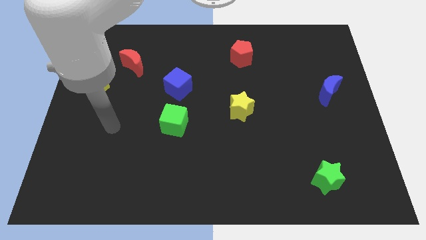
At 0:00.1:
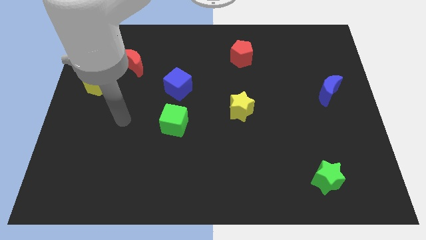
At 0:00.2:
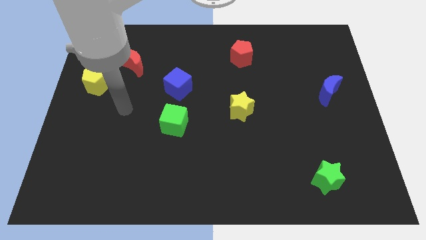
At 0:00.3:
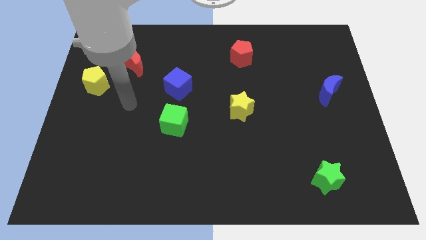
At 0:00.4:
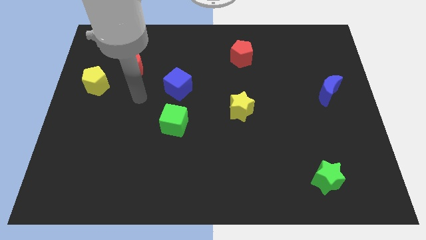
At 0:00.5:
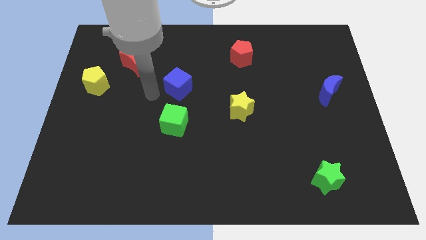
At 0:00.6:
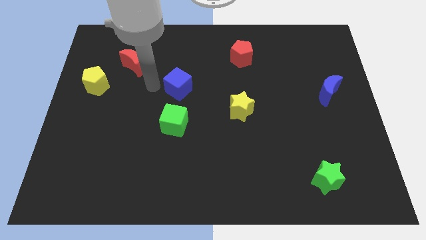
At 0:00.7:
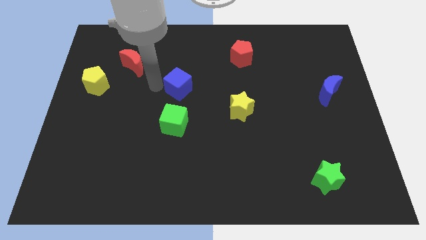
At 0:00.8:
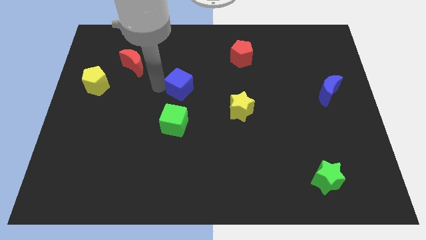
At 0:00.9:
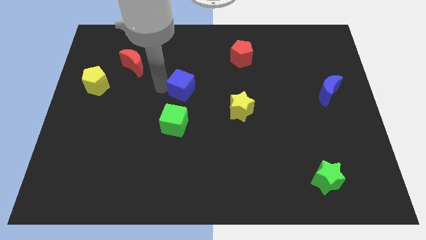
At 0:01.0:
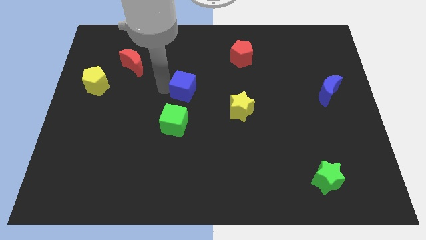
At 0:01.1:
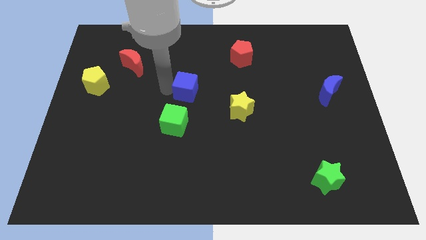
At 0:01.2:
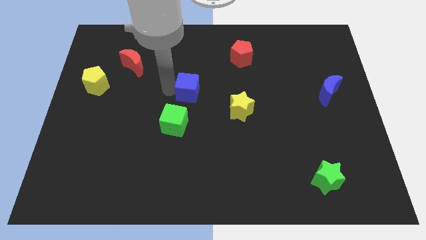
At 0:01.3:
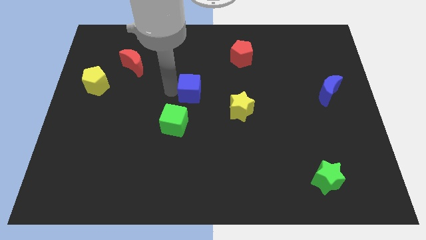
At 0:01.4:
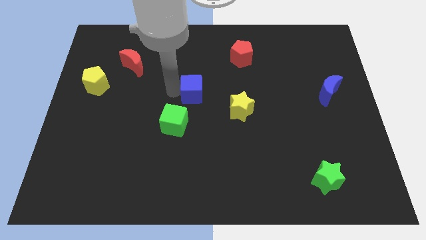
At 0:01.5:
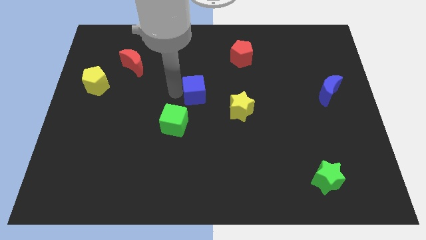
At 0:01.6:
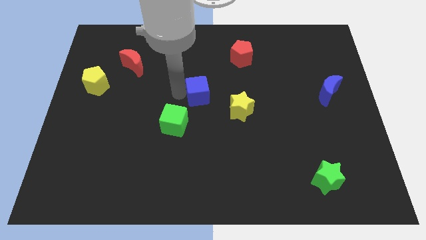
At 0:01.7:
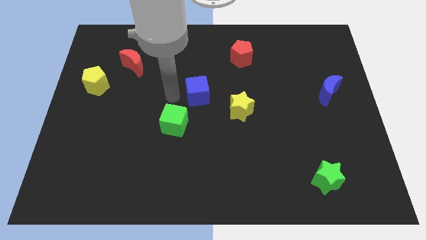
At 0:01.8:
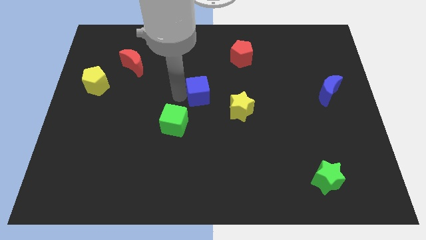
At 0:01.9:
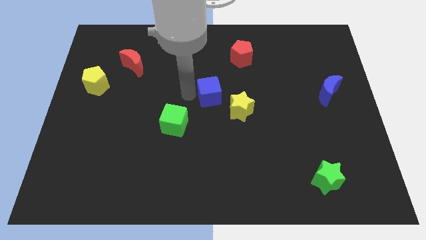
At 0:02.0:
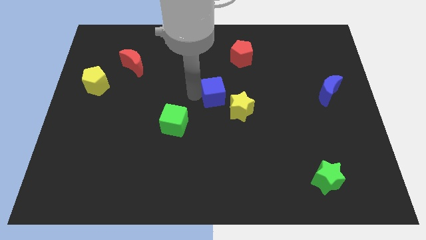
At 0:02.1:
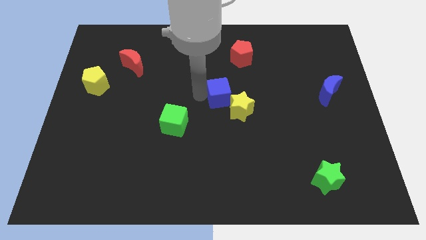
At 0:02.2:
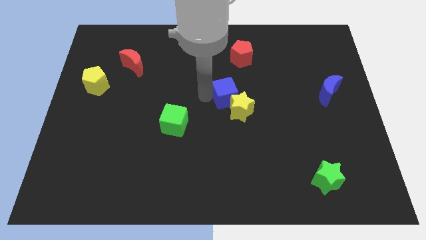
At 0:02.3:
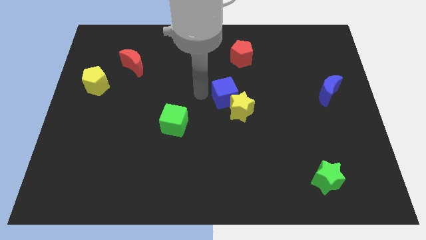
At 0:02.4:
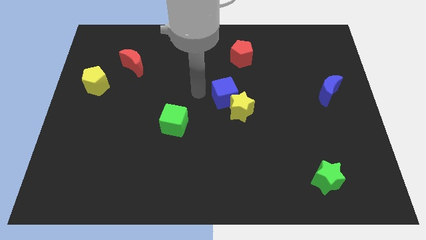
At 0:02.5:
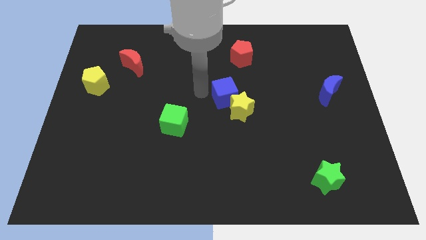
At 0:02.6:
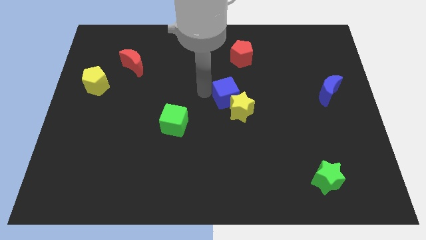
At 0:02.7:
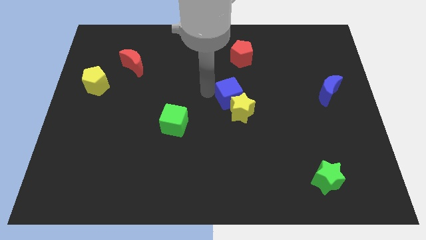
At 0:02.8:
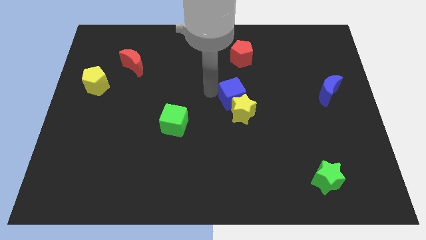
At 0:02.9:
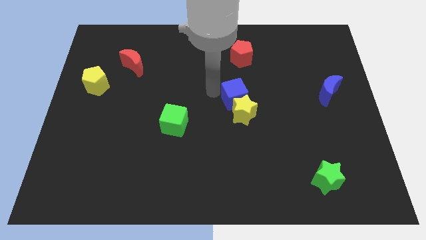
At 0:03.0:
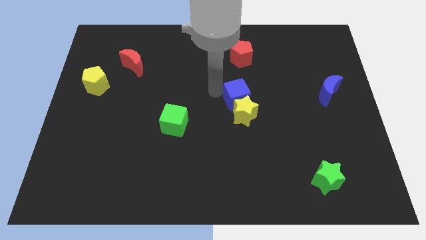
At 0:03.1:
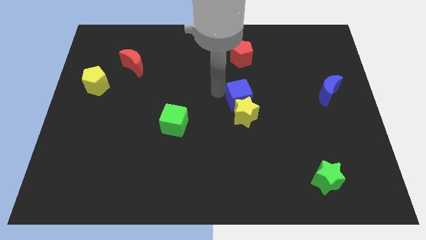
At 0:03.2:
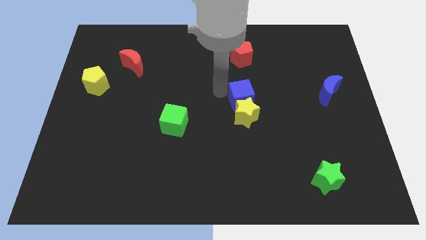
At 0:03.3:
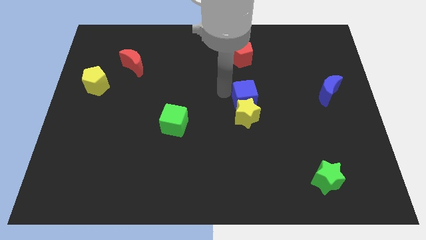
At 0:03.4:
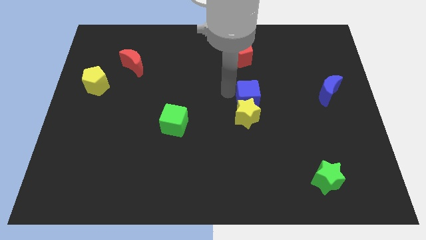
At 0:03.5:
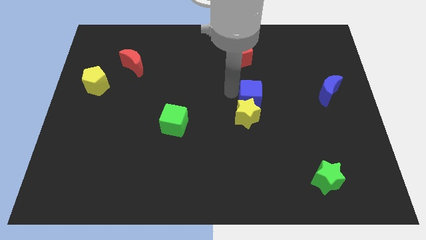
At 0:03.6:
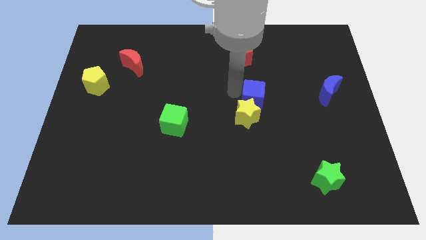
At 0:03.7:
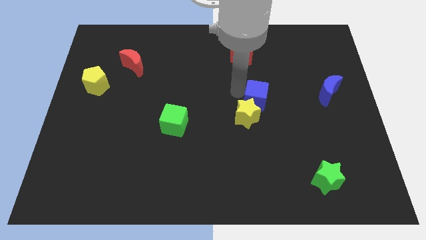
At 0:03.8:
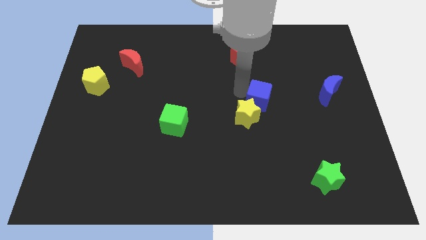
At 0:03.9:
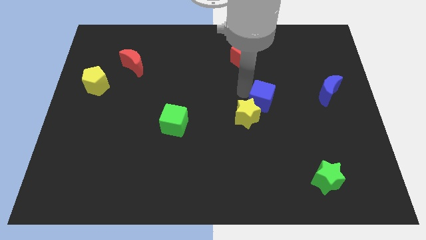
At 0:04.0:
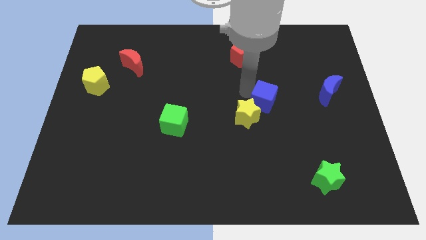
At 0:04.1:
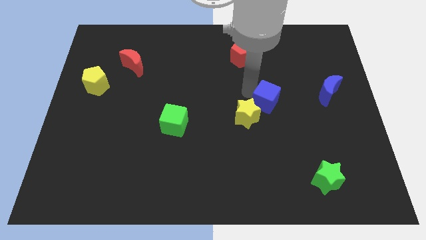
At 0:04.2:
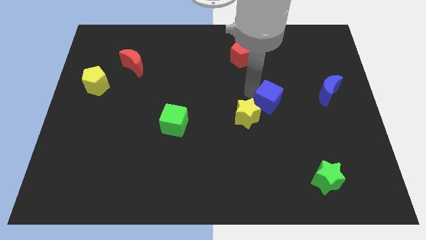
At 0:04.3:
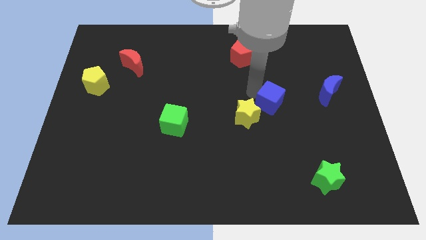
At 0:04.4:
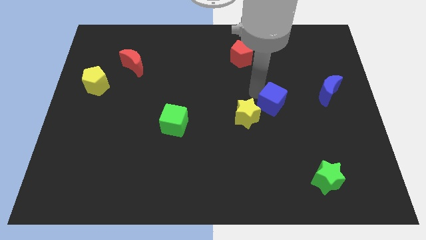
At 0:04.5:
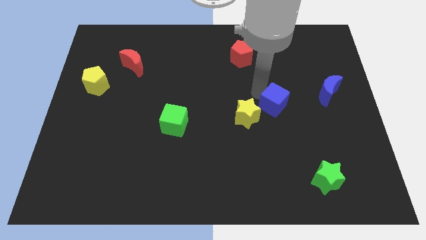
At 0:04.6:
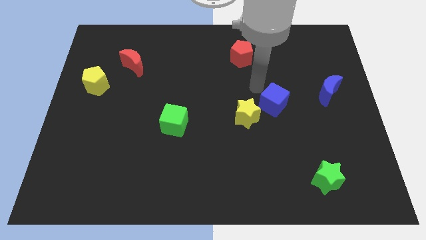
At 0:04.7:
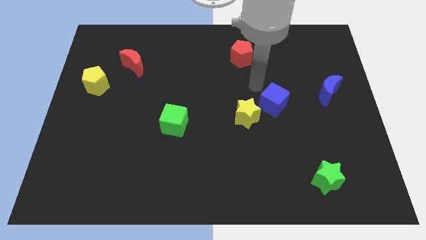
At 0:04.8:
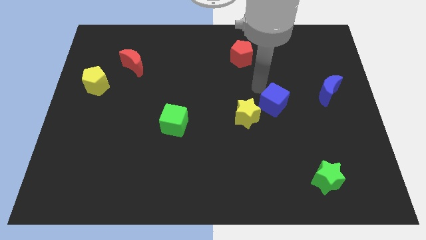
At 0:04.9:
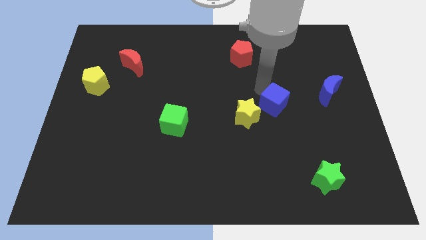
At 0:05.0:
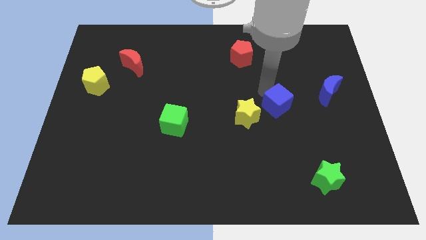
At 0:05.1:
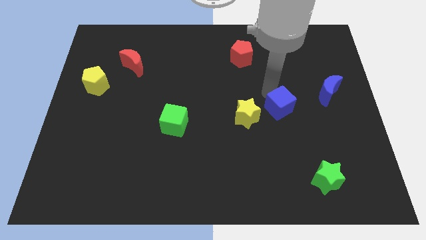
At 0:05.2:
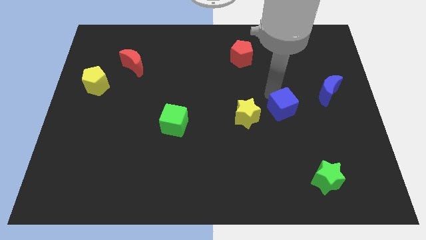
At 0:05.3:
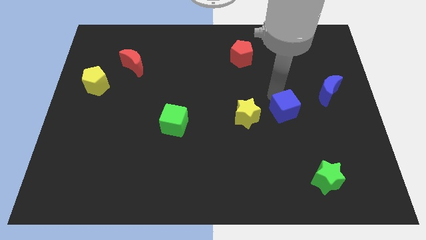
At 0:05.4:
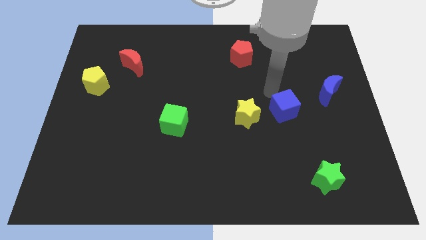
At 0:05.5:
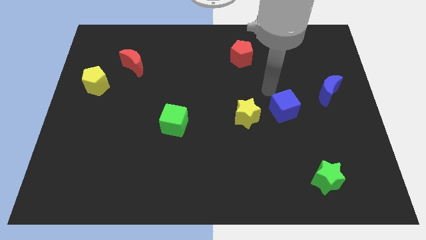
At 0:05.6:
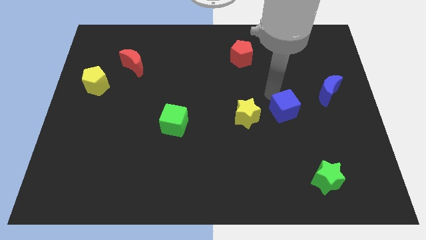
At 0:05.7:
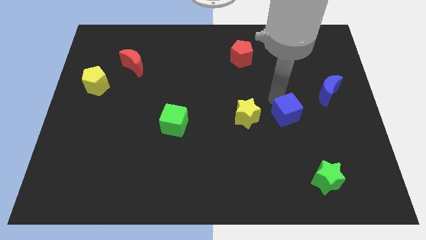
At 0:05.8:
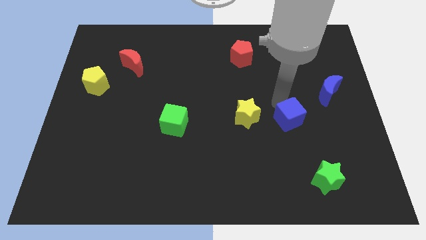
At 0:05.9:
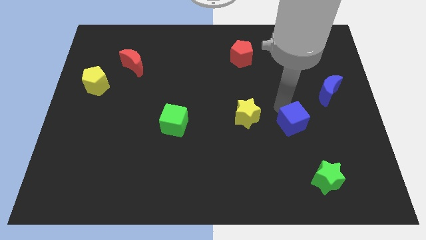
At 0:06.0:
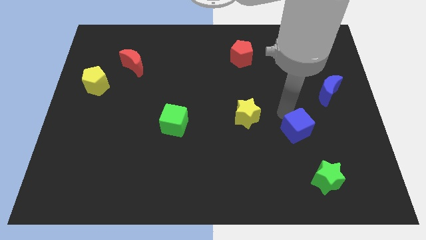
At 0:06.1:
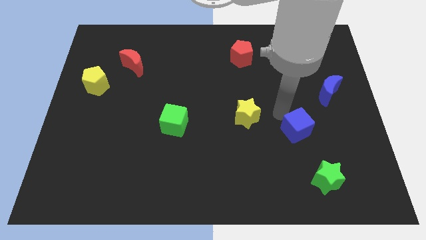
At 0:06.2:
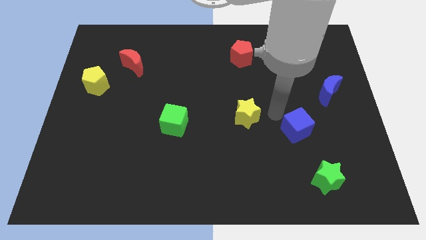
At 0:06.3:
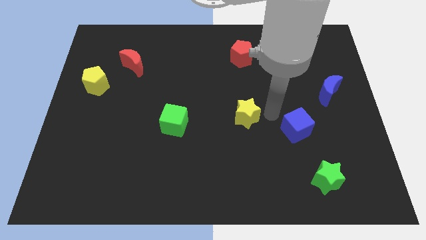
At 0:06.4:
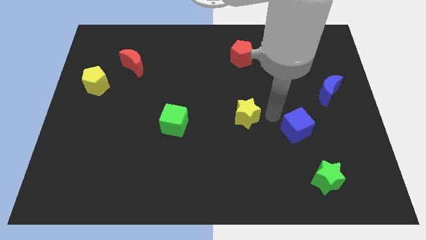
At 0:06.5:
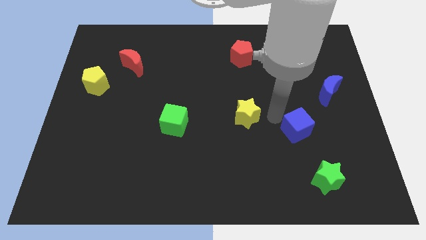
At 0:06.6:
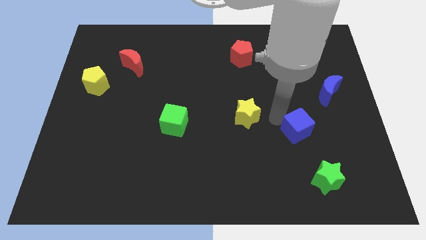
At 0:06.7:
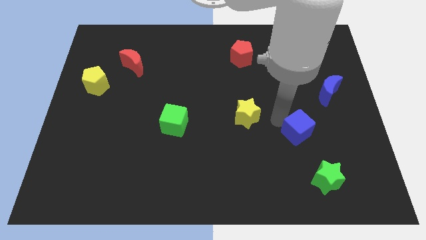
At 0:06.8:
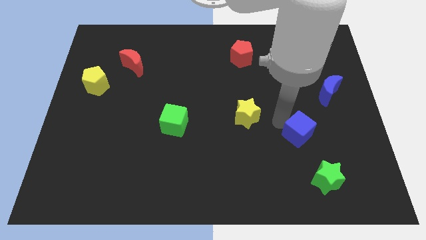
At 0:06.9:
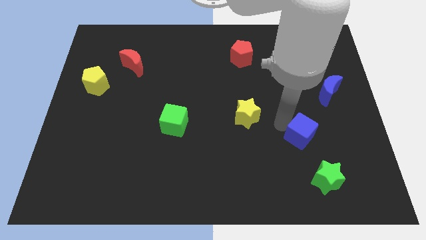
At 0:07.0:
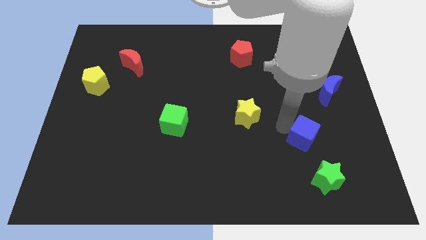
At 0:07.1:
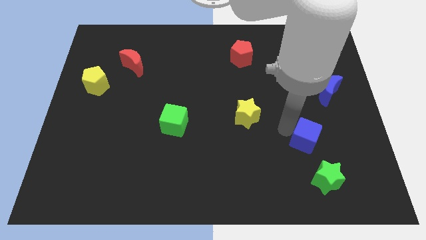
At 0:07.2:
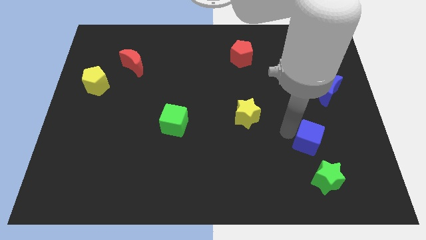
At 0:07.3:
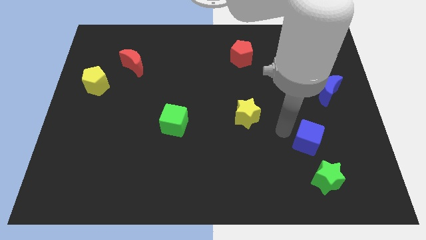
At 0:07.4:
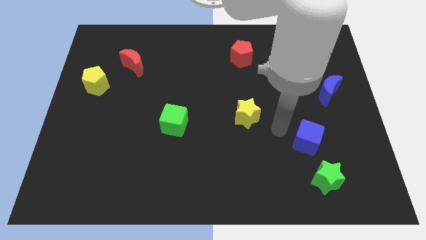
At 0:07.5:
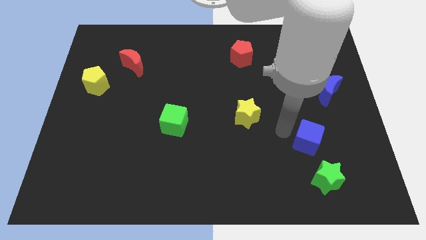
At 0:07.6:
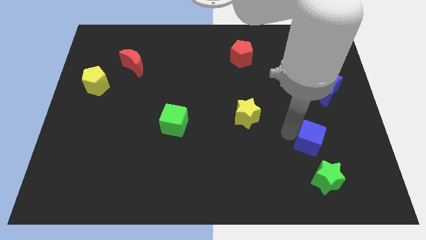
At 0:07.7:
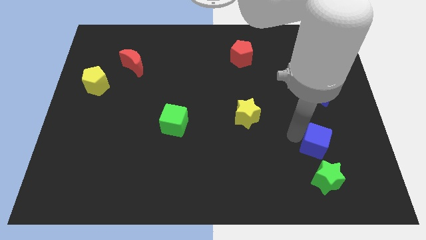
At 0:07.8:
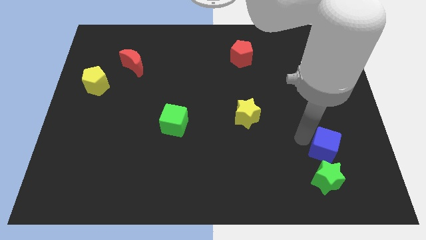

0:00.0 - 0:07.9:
put the blue cube to the top right of the green star
